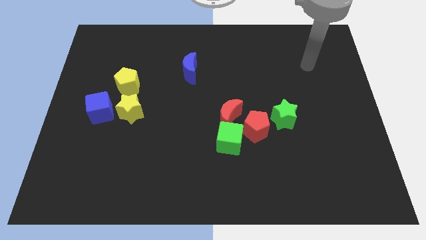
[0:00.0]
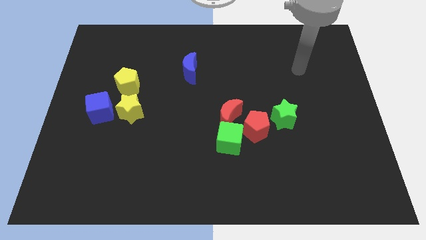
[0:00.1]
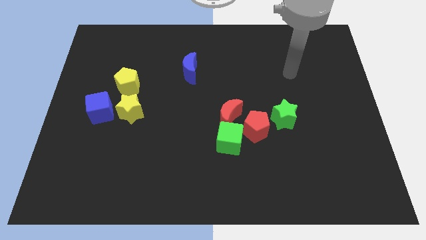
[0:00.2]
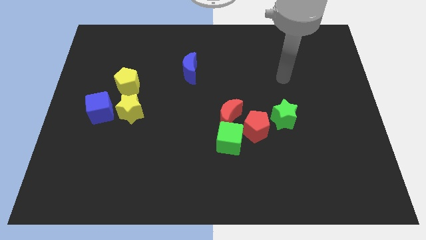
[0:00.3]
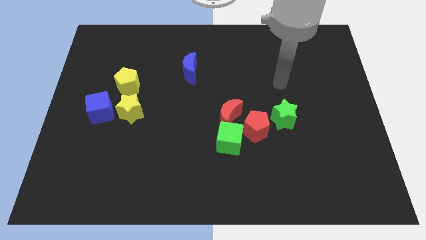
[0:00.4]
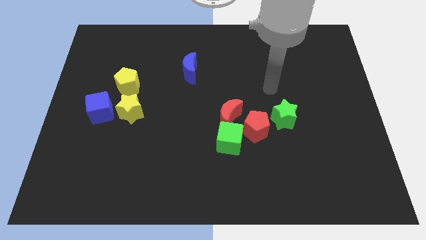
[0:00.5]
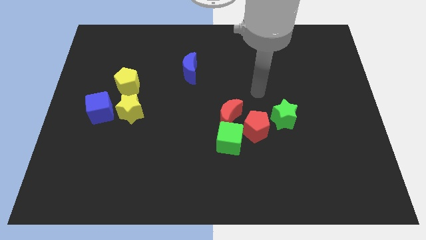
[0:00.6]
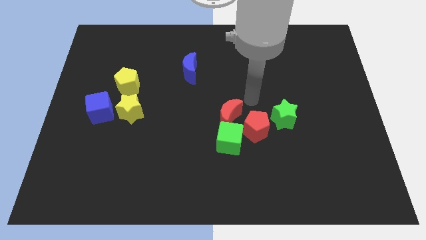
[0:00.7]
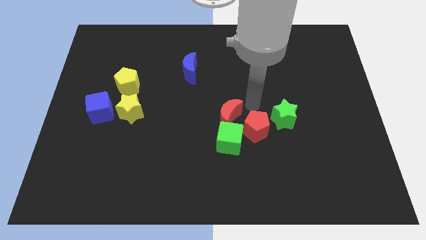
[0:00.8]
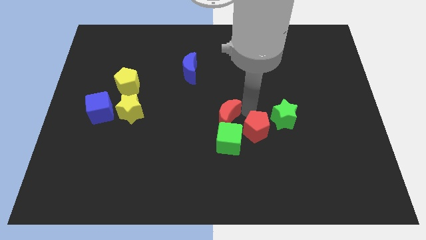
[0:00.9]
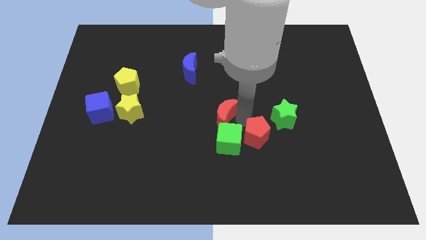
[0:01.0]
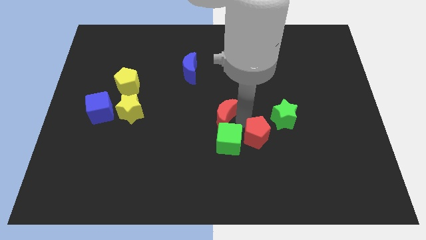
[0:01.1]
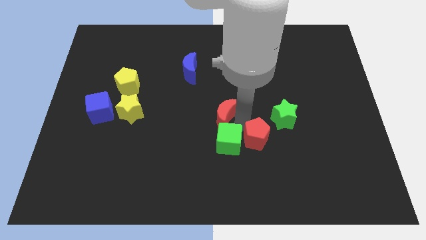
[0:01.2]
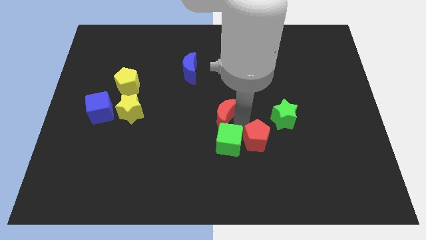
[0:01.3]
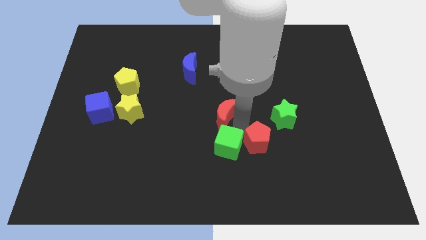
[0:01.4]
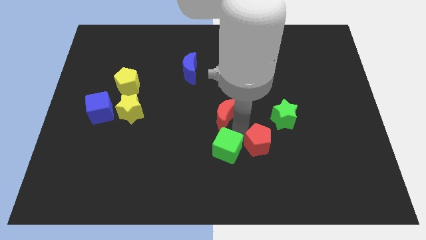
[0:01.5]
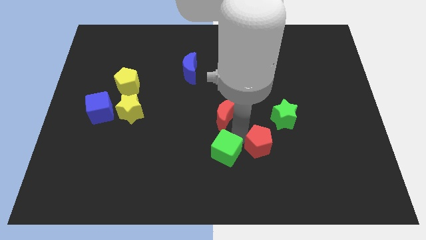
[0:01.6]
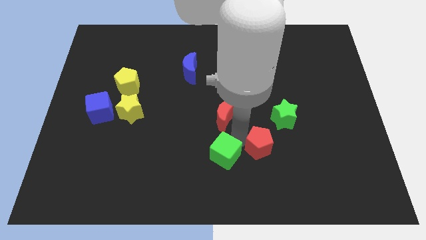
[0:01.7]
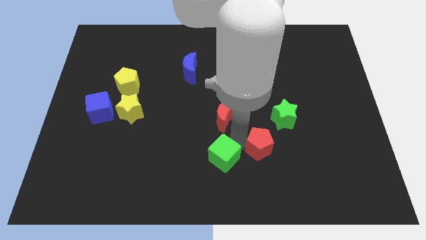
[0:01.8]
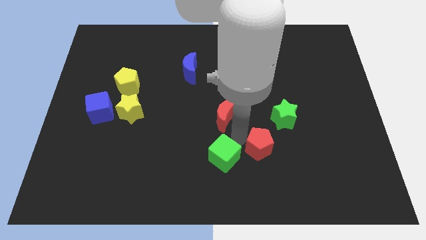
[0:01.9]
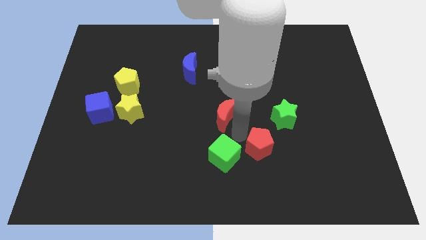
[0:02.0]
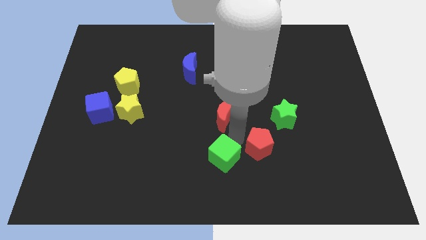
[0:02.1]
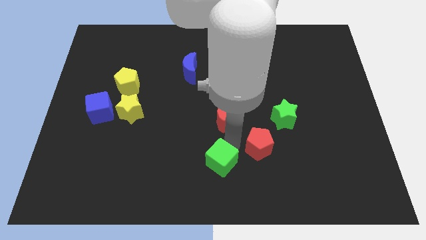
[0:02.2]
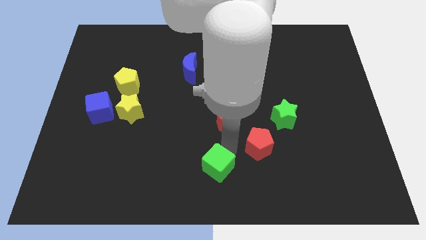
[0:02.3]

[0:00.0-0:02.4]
separate the green cube from the red moon and red pentagon

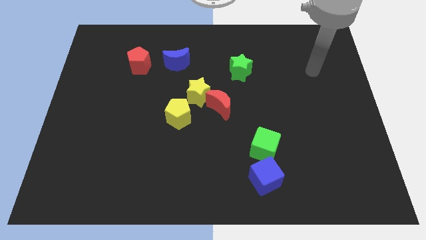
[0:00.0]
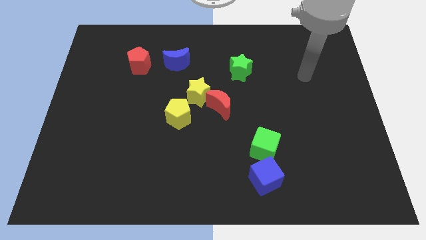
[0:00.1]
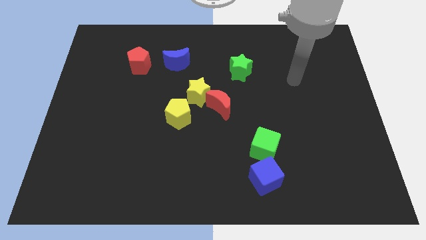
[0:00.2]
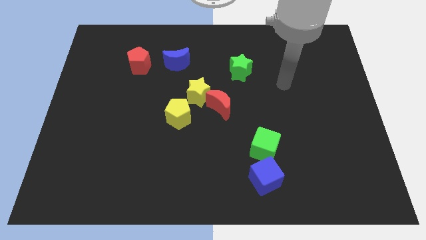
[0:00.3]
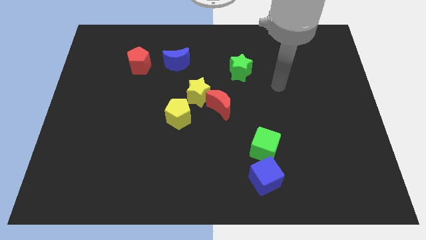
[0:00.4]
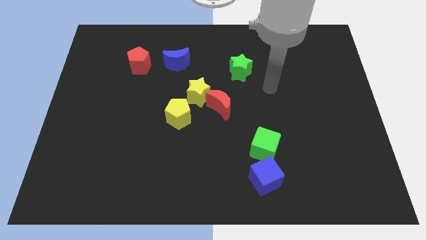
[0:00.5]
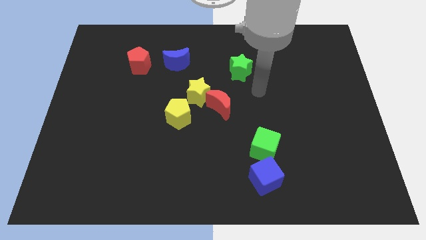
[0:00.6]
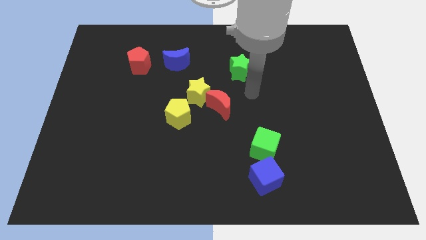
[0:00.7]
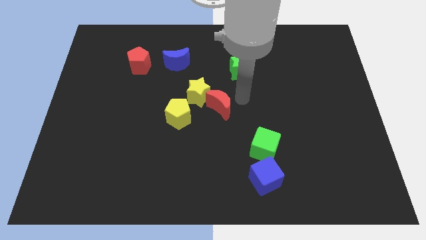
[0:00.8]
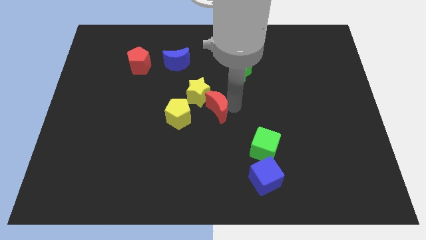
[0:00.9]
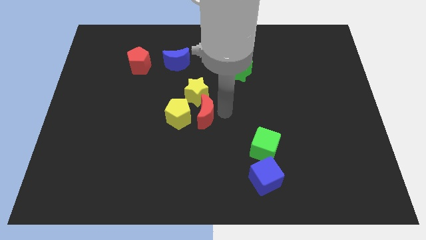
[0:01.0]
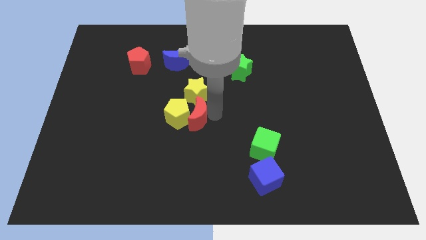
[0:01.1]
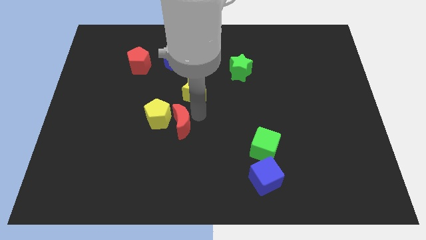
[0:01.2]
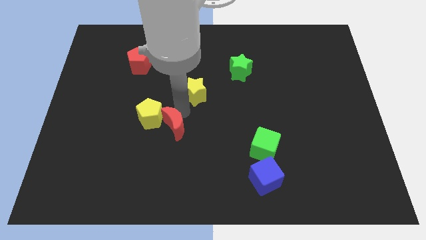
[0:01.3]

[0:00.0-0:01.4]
separate the yellow star from the red moon and yellow pentagon

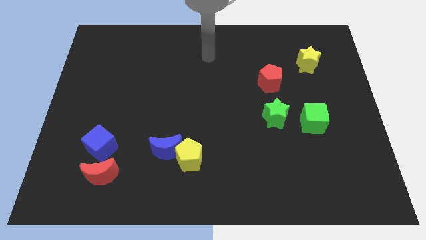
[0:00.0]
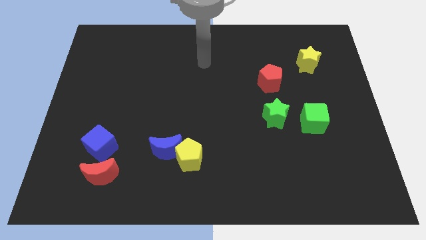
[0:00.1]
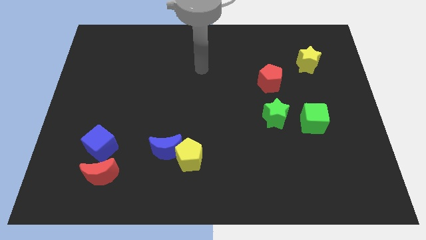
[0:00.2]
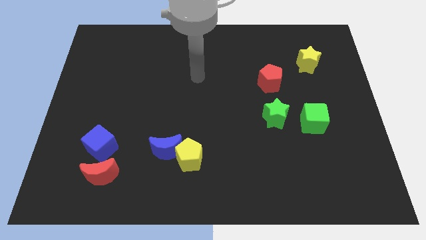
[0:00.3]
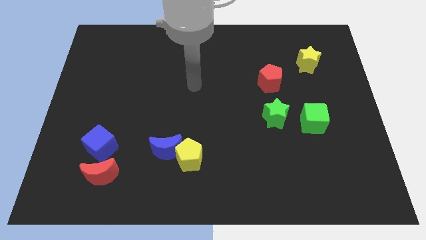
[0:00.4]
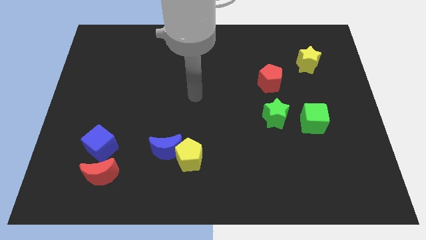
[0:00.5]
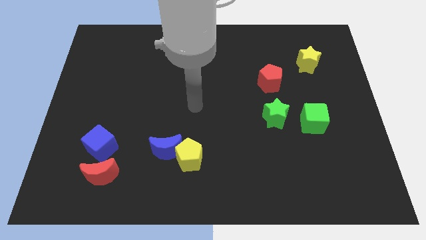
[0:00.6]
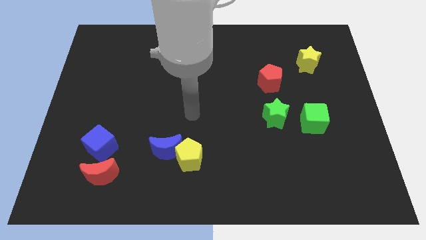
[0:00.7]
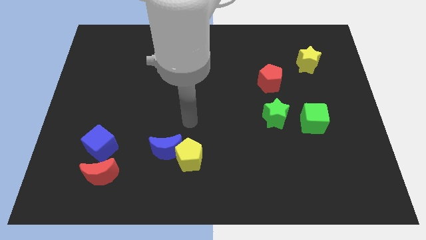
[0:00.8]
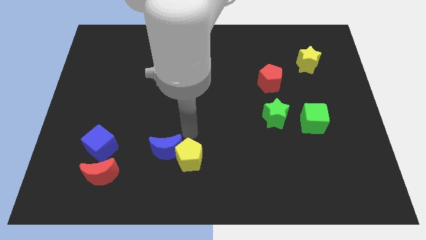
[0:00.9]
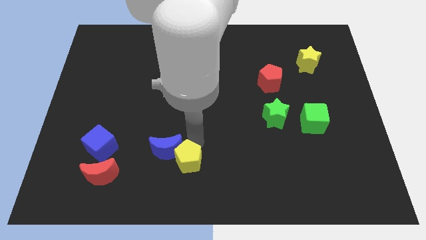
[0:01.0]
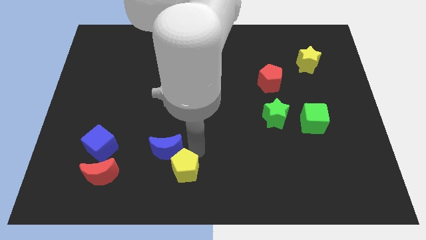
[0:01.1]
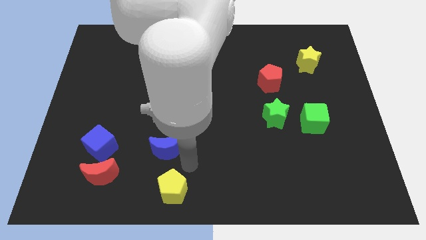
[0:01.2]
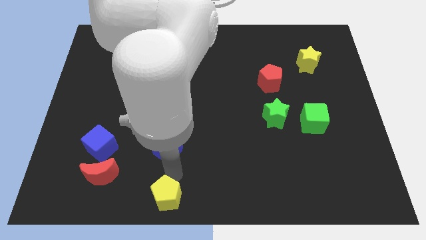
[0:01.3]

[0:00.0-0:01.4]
move the blue moon away from the yellow pentagon

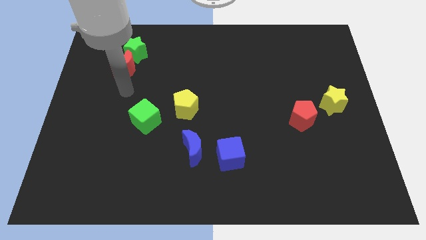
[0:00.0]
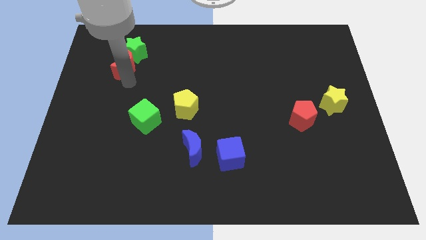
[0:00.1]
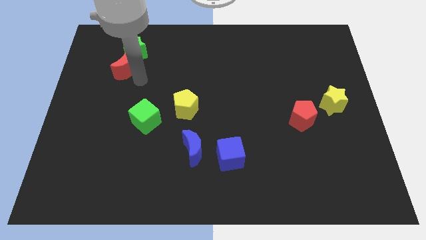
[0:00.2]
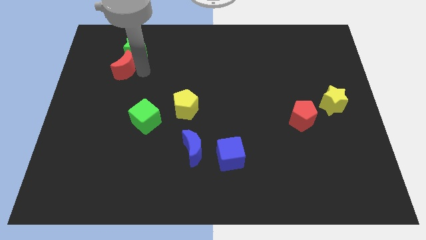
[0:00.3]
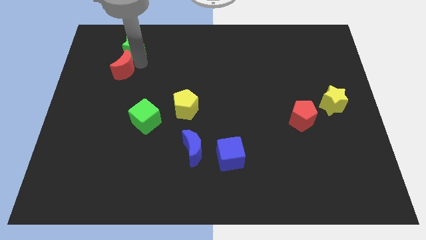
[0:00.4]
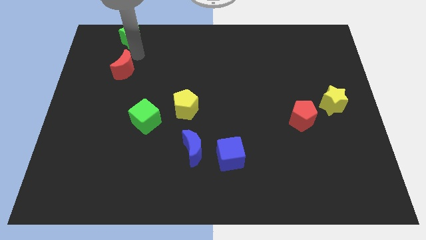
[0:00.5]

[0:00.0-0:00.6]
move the red moon away from the green star

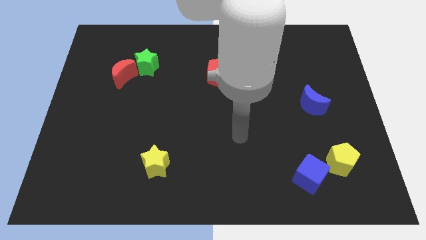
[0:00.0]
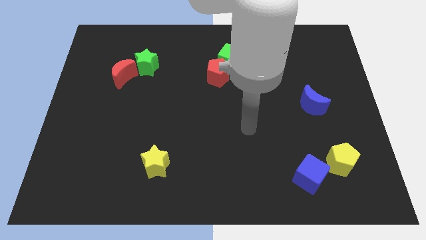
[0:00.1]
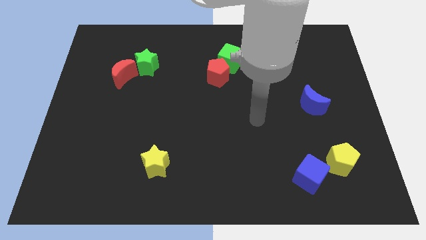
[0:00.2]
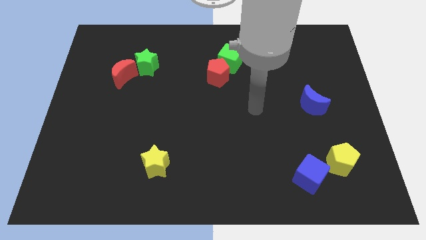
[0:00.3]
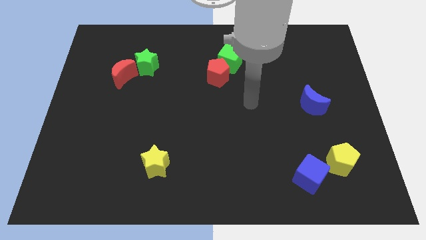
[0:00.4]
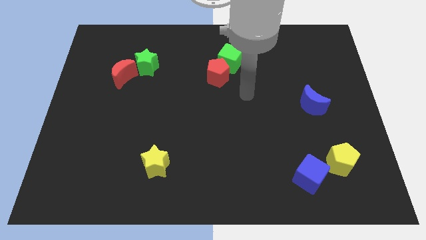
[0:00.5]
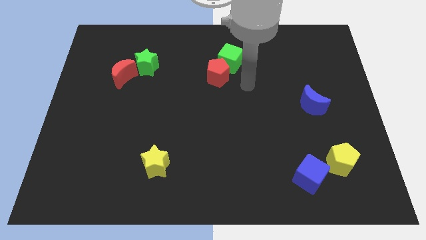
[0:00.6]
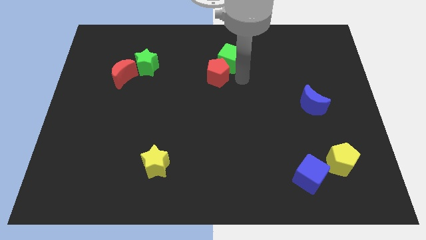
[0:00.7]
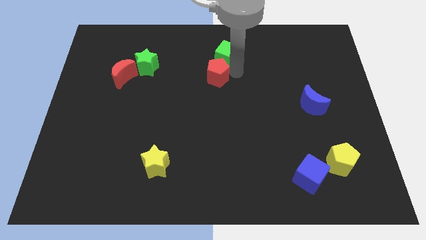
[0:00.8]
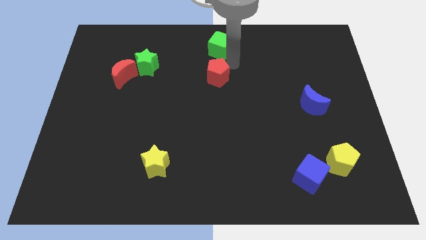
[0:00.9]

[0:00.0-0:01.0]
separate the red pentagon from the green cube

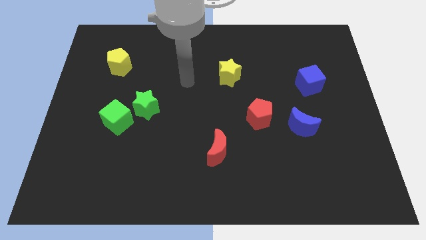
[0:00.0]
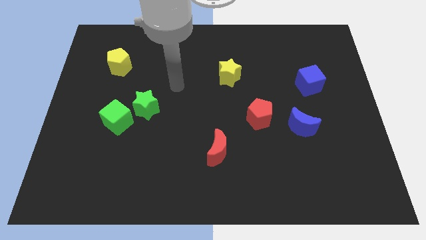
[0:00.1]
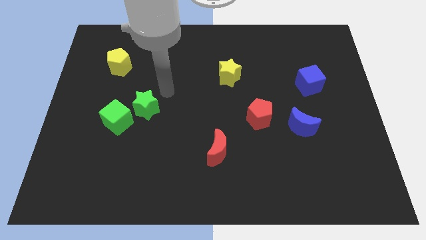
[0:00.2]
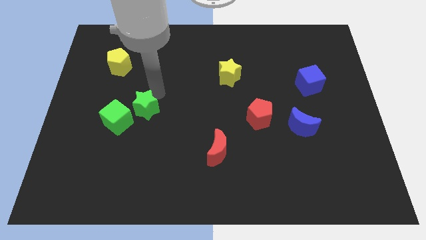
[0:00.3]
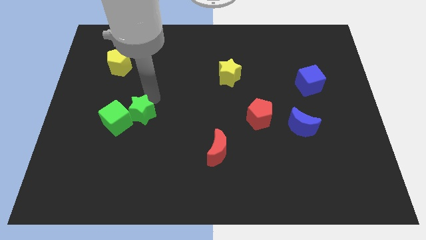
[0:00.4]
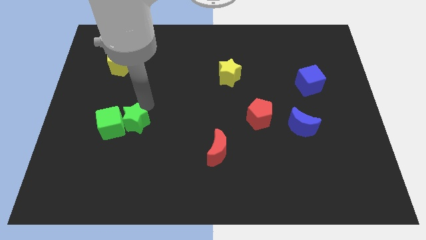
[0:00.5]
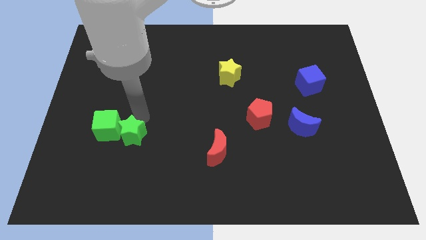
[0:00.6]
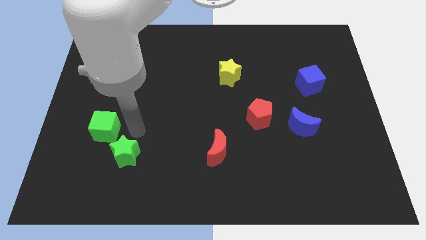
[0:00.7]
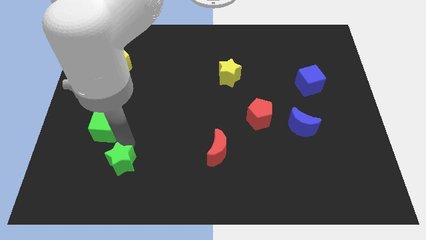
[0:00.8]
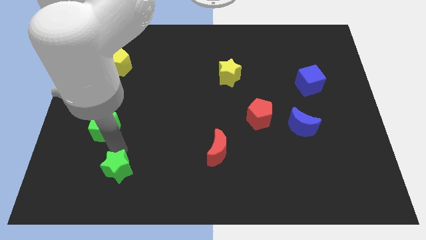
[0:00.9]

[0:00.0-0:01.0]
pull the green cube apart from the green star

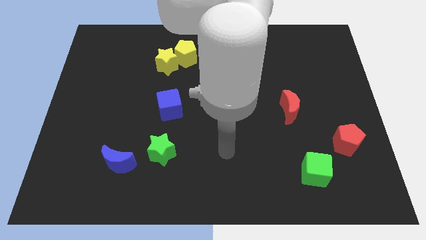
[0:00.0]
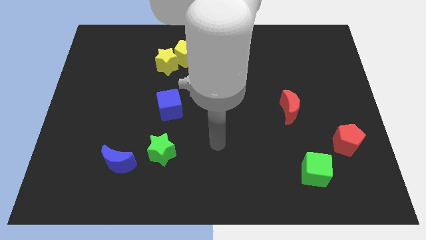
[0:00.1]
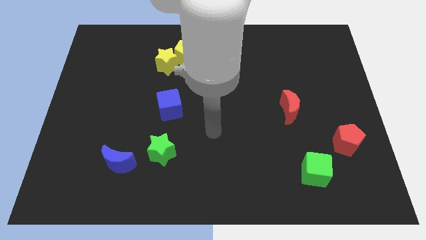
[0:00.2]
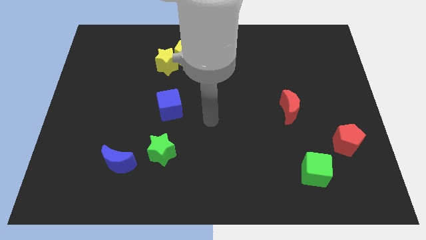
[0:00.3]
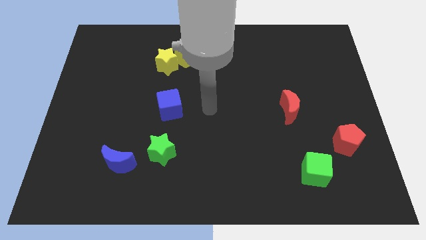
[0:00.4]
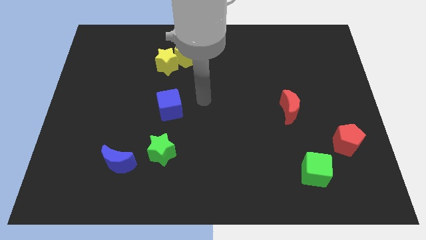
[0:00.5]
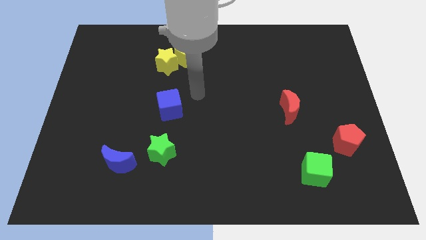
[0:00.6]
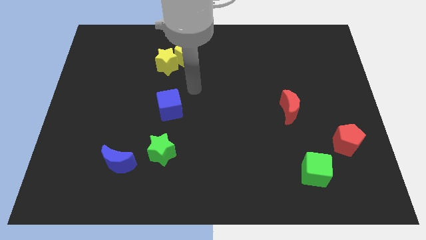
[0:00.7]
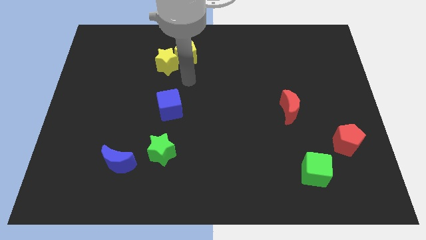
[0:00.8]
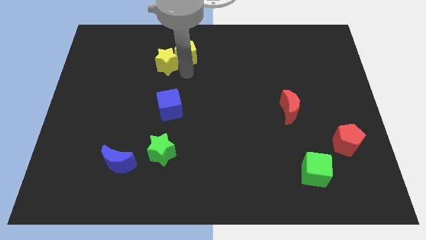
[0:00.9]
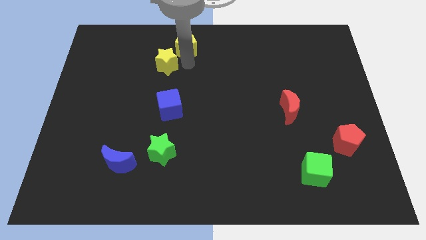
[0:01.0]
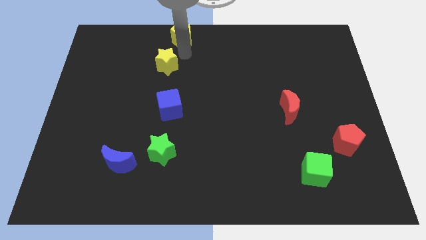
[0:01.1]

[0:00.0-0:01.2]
move the yellow star away from the yellow pentagon

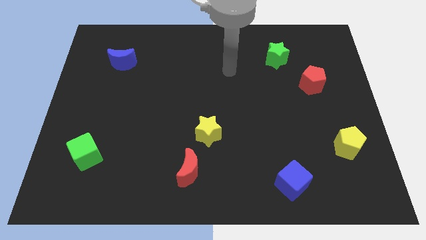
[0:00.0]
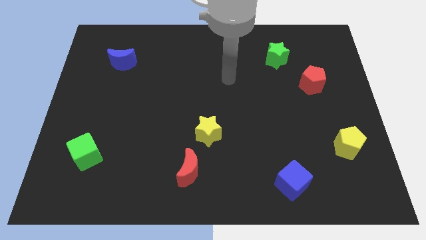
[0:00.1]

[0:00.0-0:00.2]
separate the red moon from the yellow star
